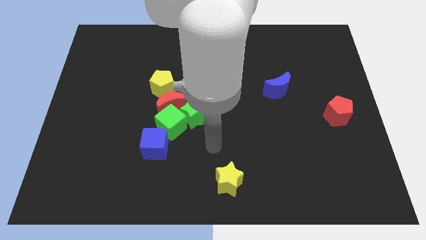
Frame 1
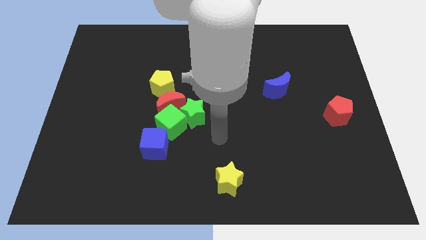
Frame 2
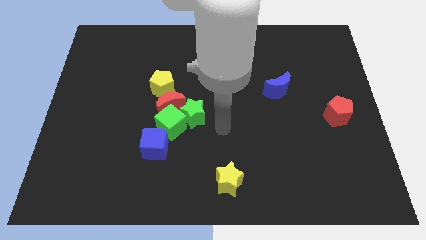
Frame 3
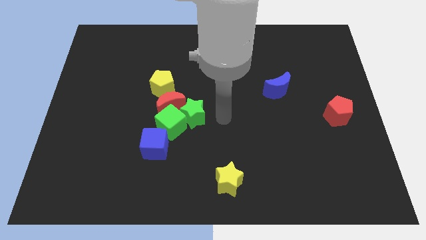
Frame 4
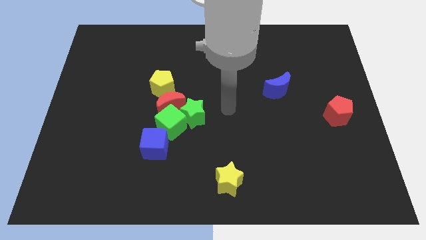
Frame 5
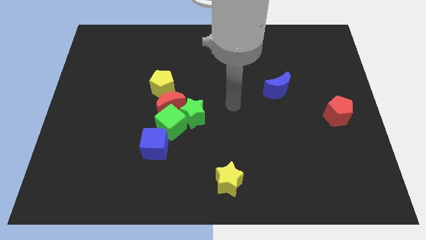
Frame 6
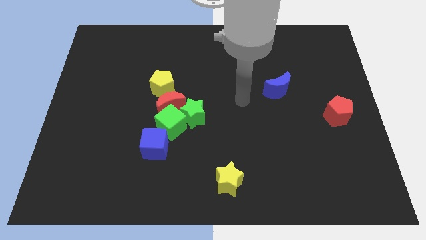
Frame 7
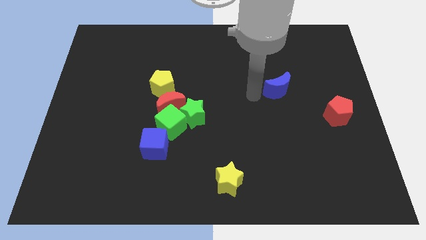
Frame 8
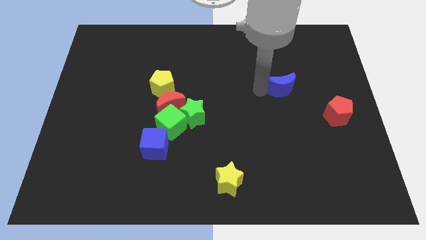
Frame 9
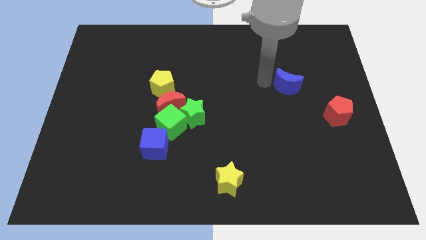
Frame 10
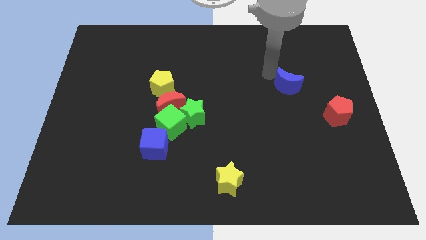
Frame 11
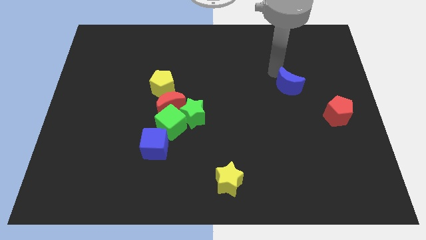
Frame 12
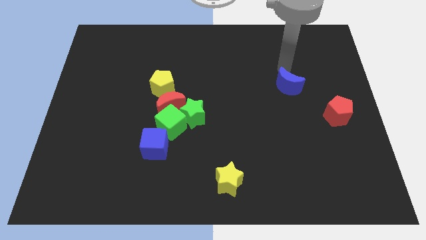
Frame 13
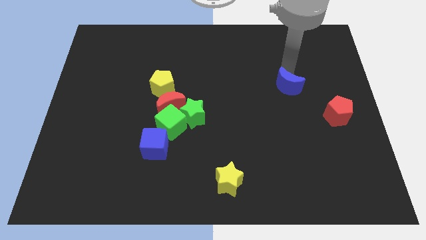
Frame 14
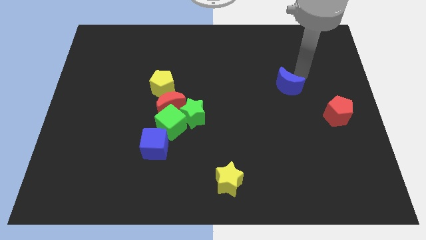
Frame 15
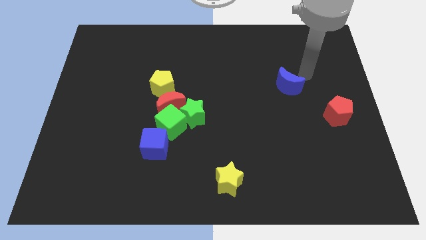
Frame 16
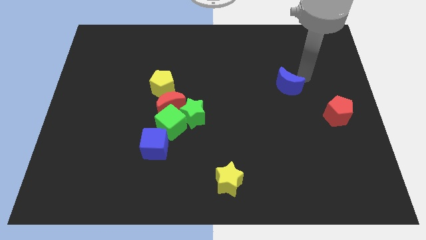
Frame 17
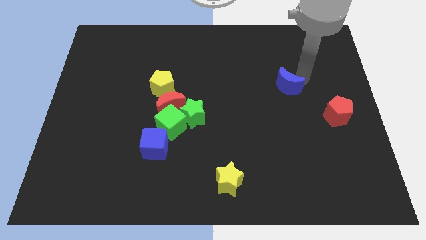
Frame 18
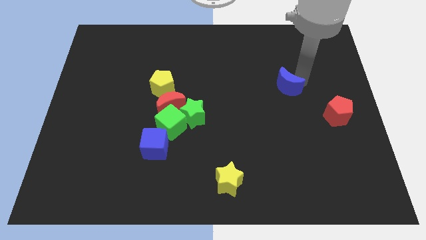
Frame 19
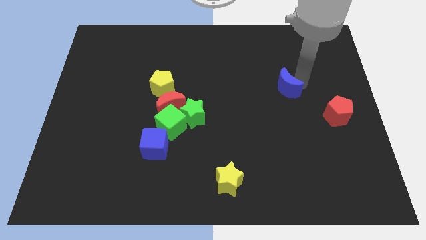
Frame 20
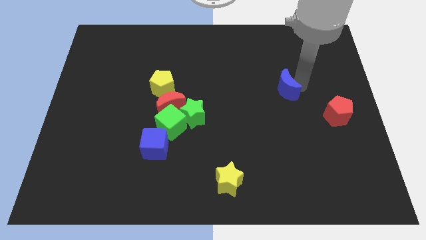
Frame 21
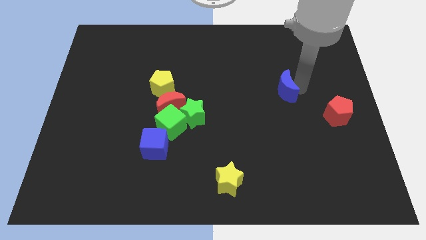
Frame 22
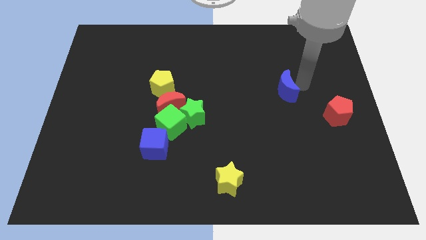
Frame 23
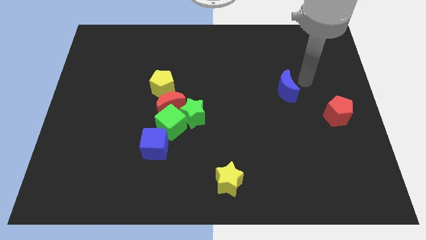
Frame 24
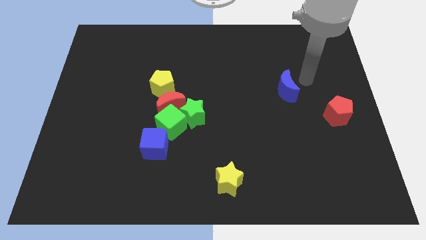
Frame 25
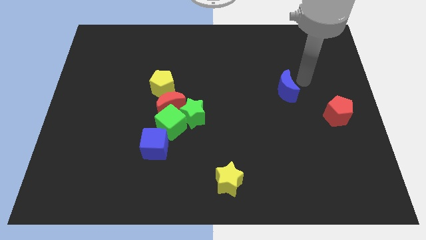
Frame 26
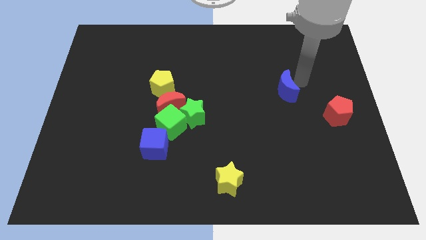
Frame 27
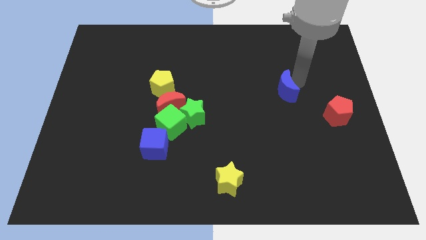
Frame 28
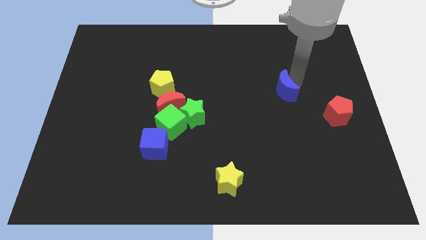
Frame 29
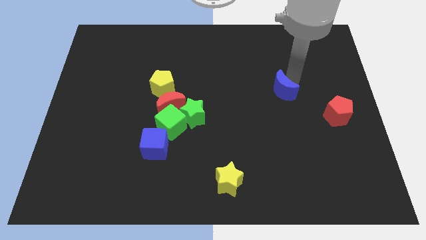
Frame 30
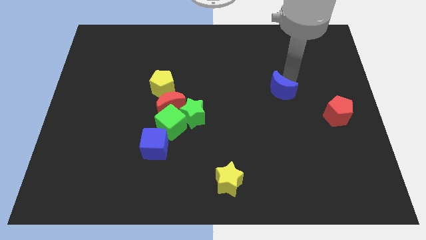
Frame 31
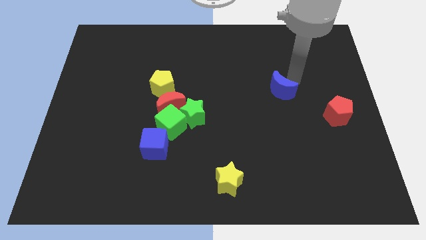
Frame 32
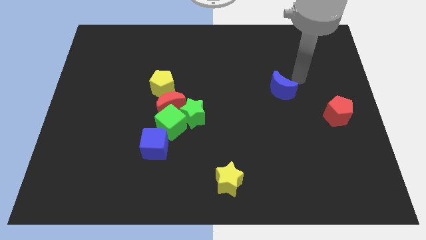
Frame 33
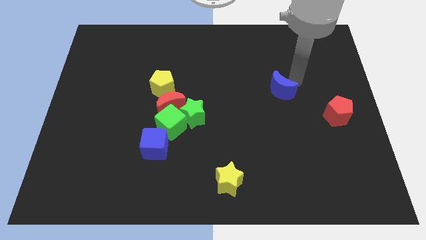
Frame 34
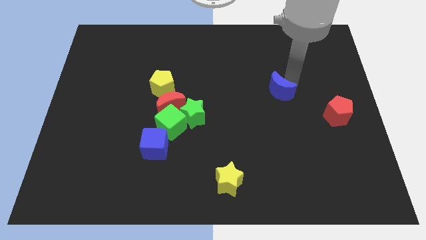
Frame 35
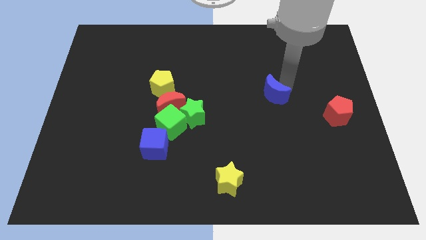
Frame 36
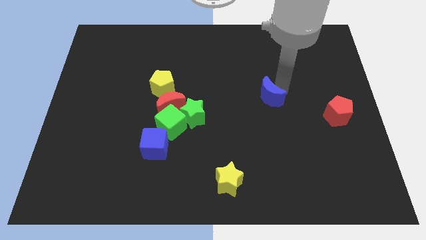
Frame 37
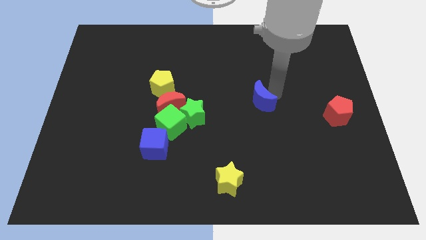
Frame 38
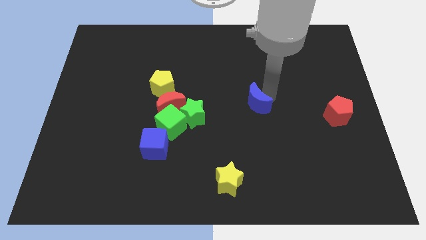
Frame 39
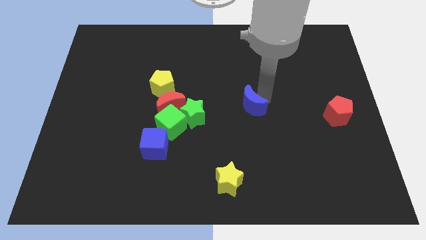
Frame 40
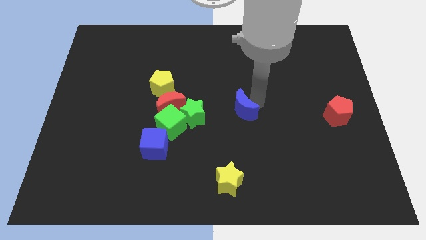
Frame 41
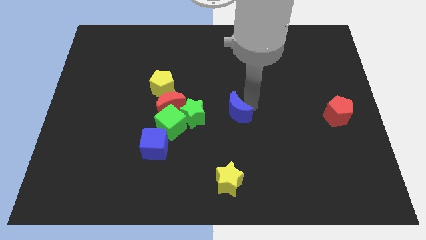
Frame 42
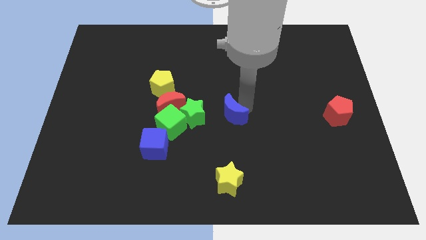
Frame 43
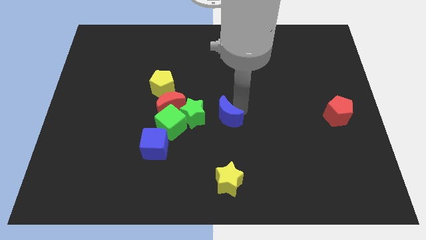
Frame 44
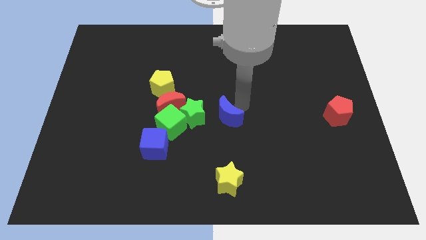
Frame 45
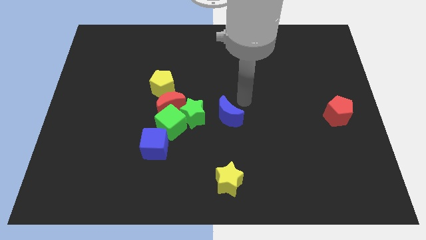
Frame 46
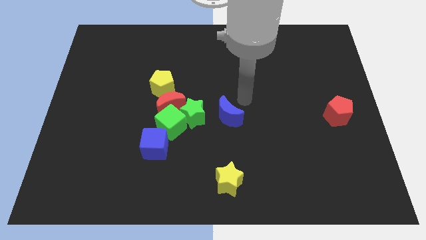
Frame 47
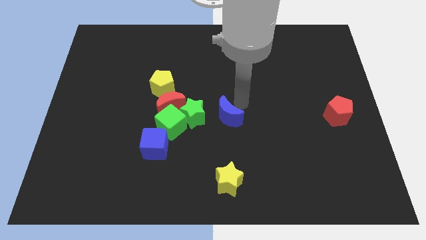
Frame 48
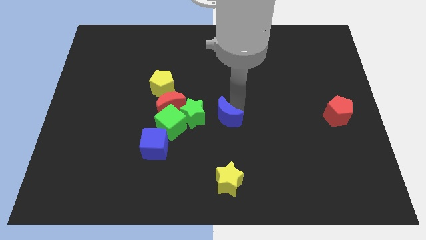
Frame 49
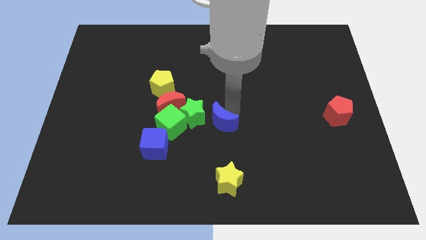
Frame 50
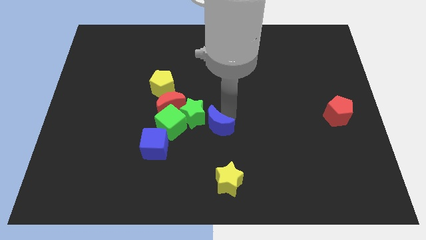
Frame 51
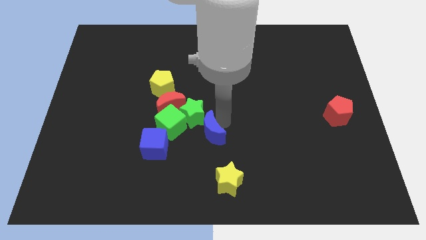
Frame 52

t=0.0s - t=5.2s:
slide the blue moon downwards and to the left

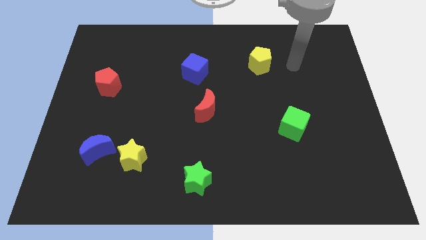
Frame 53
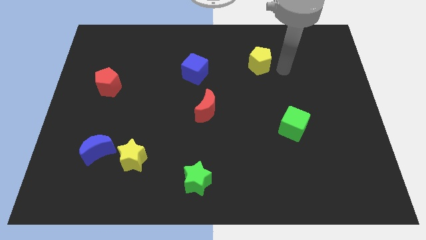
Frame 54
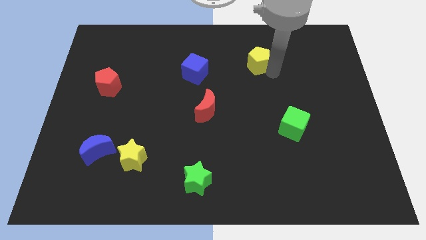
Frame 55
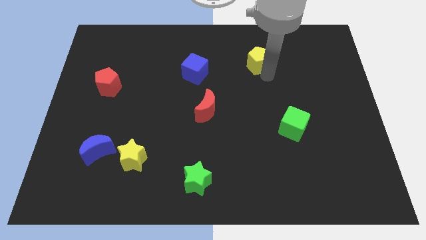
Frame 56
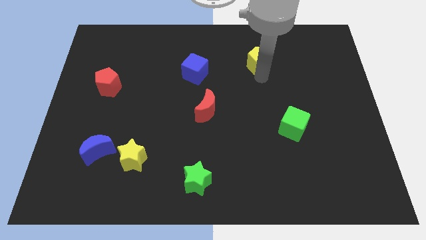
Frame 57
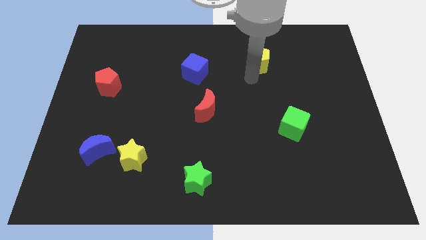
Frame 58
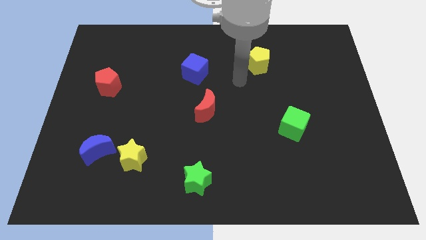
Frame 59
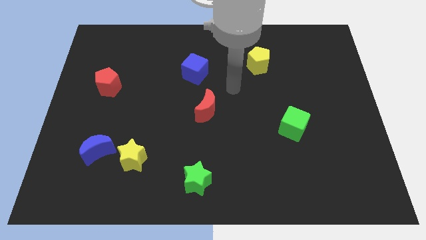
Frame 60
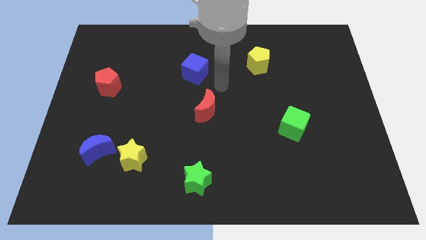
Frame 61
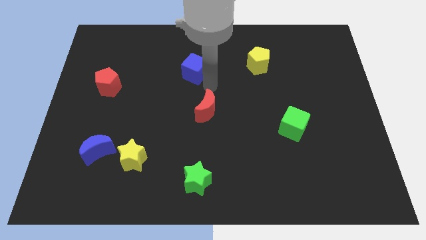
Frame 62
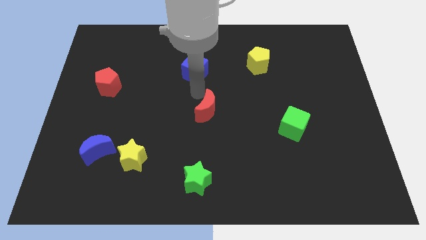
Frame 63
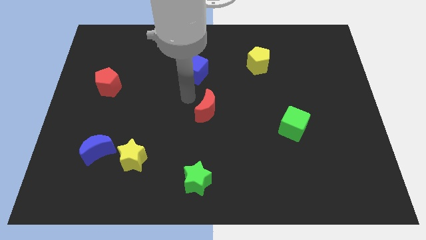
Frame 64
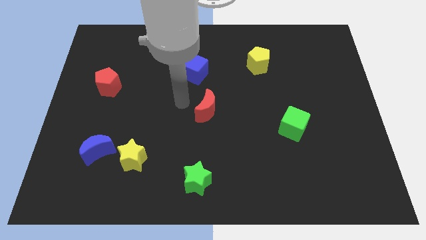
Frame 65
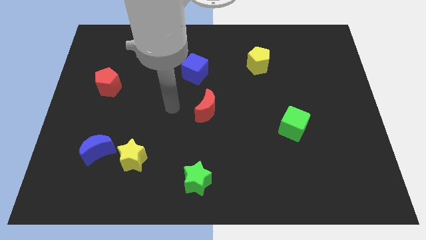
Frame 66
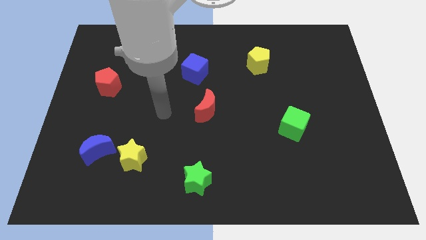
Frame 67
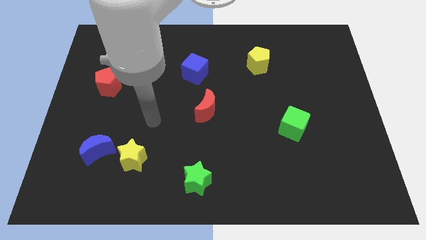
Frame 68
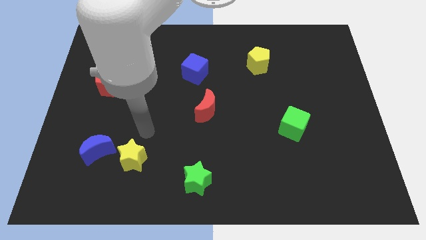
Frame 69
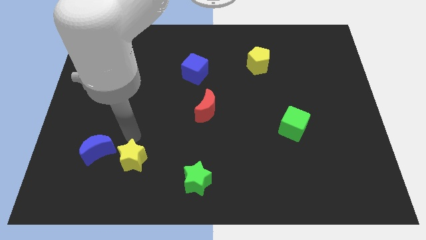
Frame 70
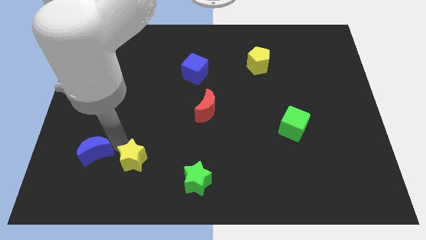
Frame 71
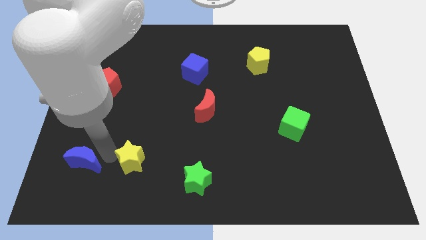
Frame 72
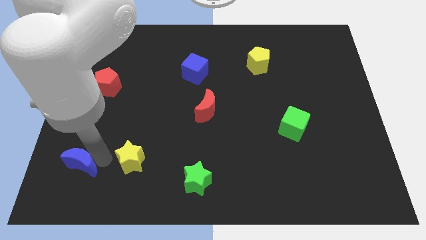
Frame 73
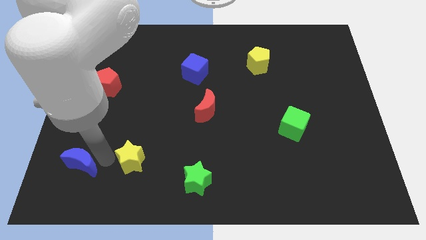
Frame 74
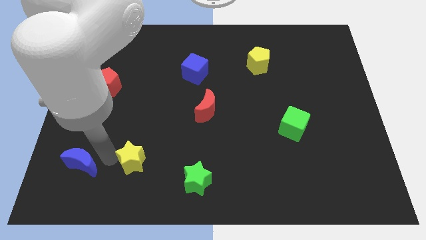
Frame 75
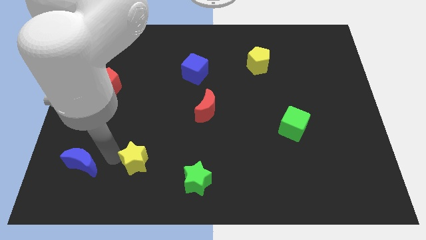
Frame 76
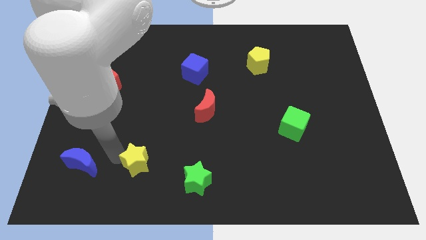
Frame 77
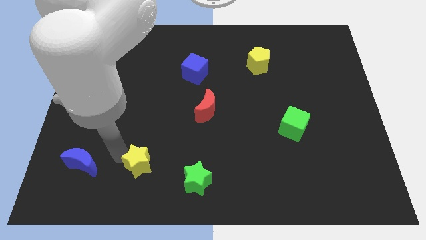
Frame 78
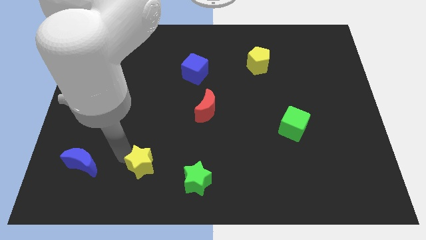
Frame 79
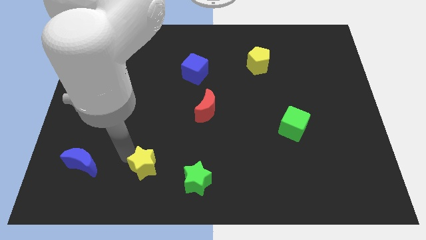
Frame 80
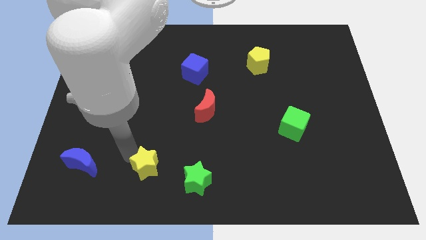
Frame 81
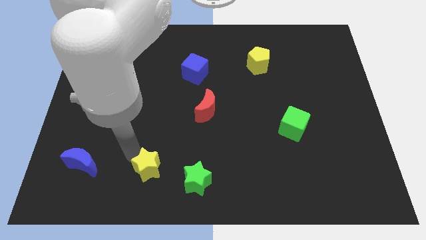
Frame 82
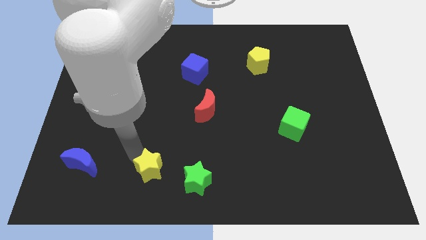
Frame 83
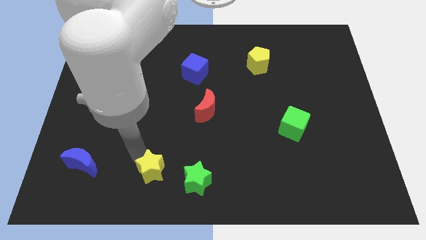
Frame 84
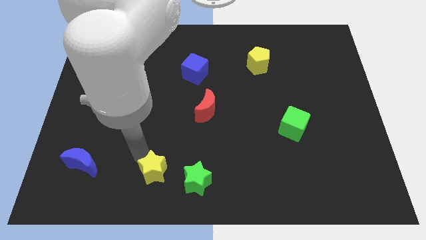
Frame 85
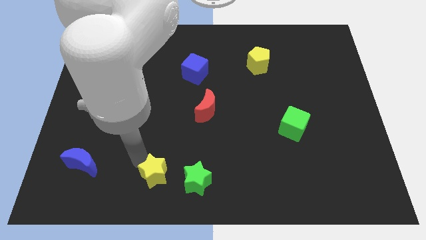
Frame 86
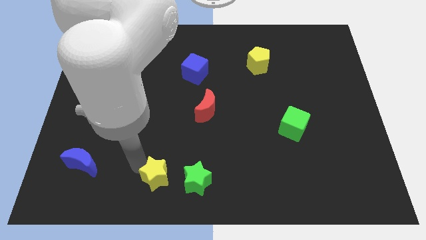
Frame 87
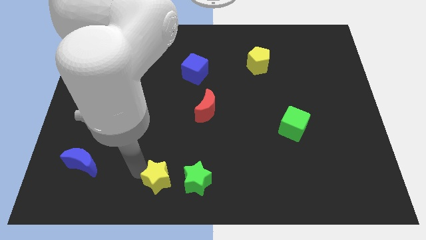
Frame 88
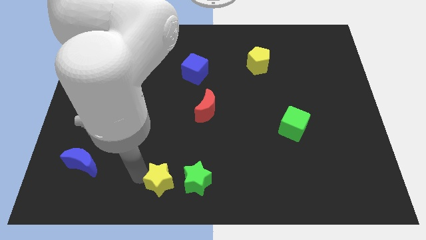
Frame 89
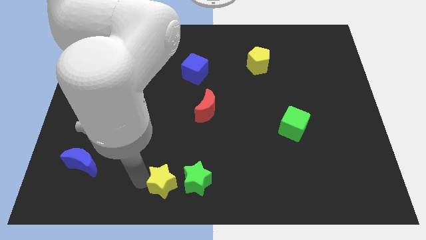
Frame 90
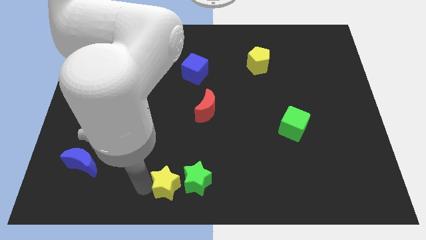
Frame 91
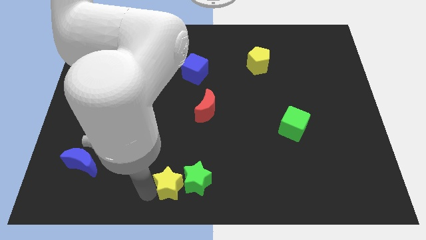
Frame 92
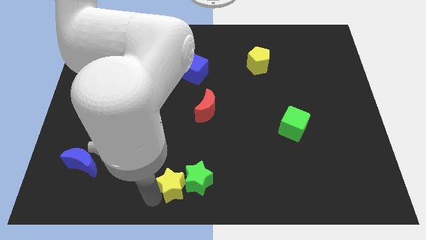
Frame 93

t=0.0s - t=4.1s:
move the yellow star to the right somewhat
